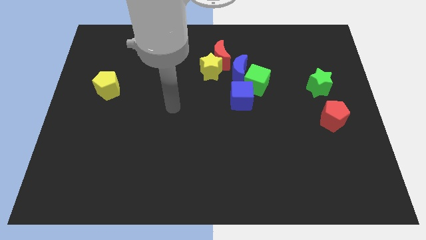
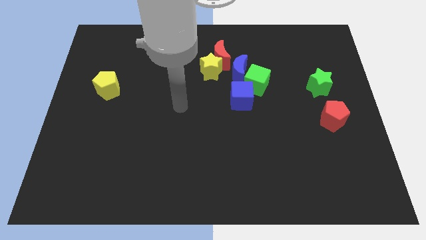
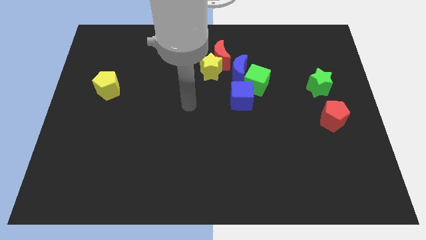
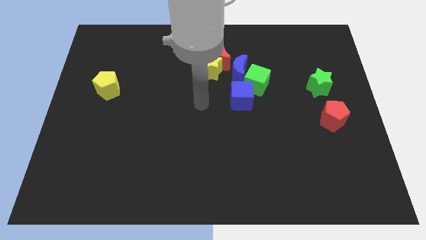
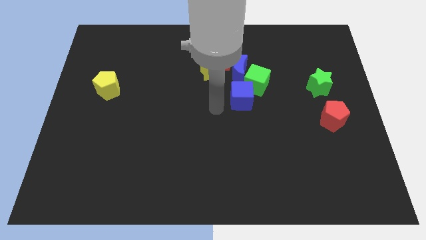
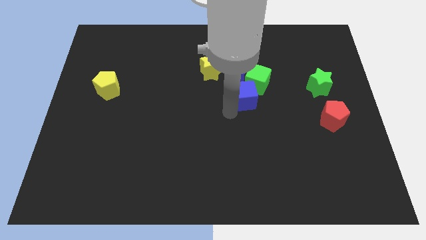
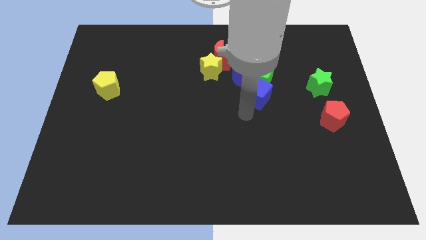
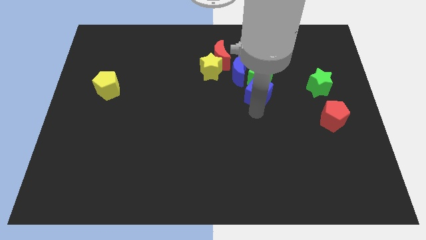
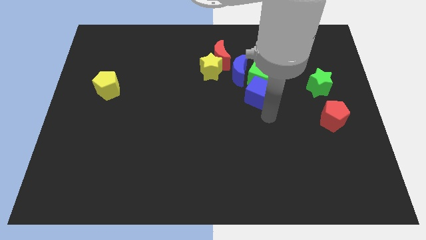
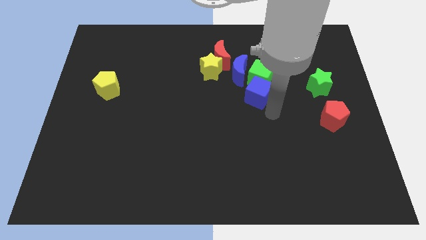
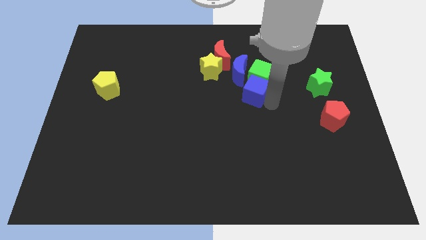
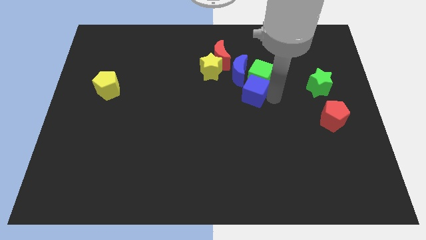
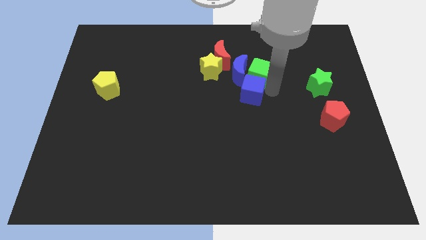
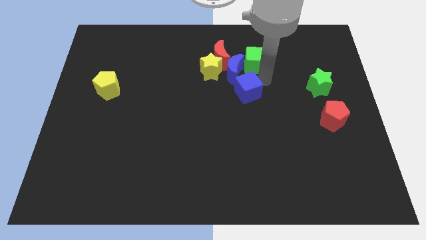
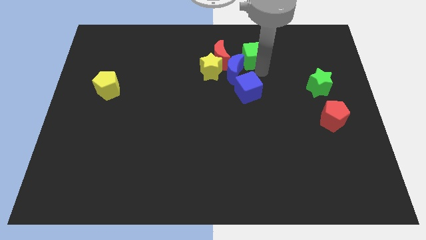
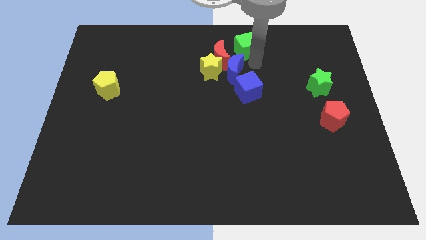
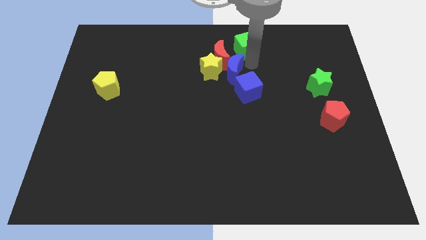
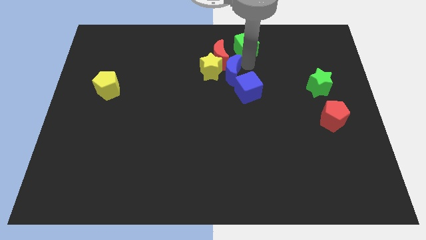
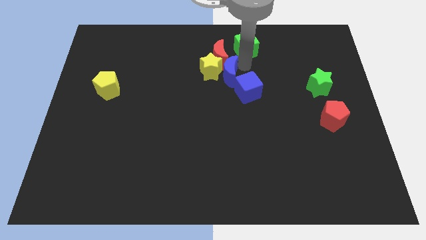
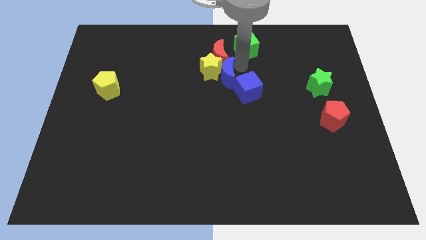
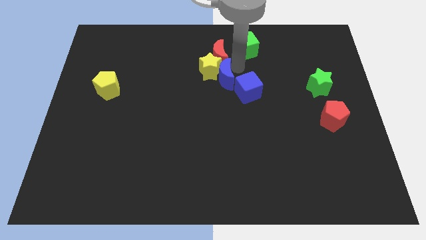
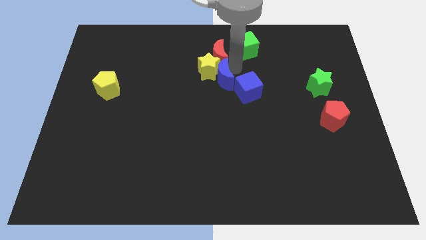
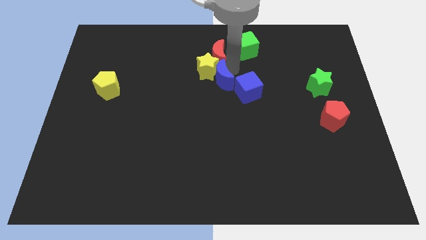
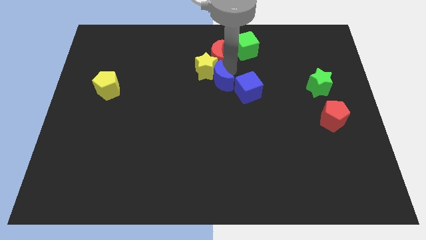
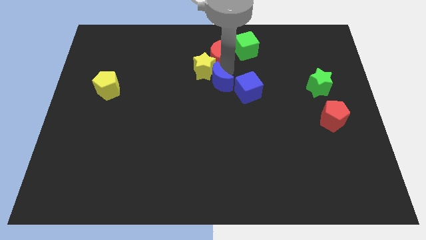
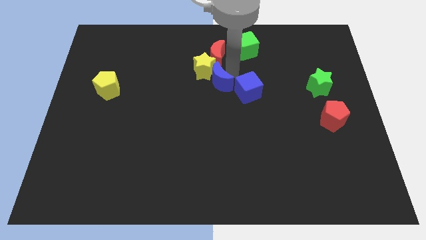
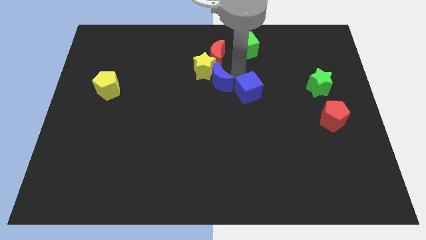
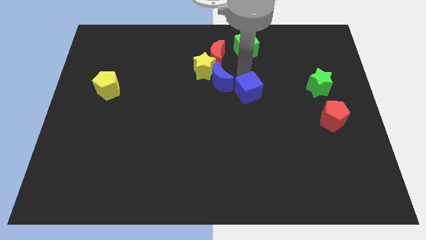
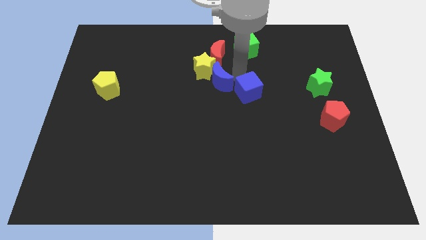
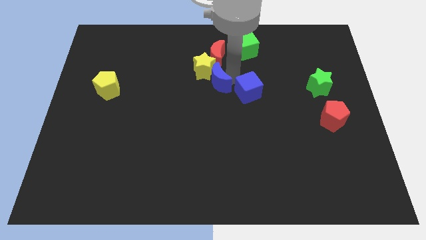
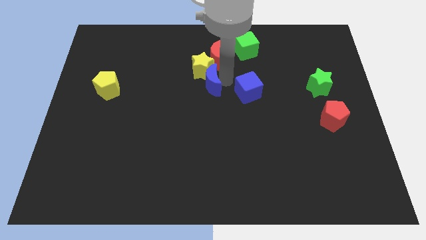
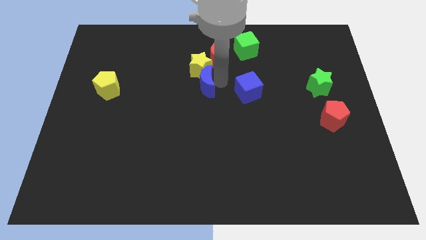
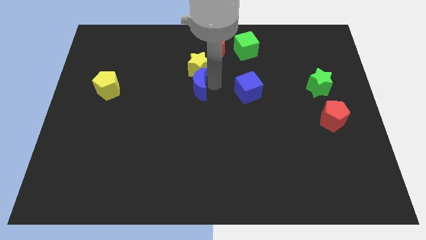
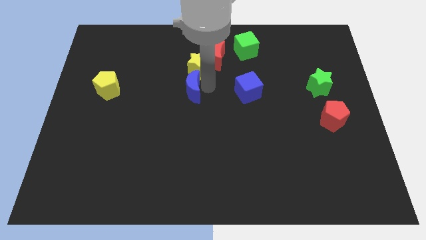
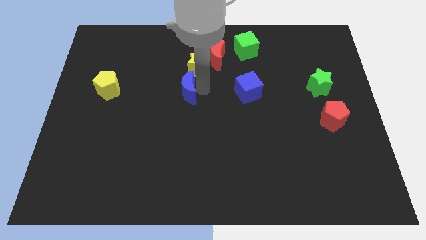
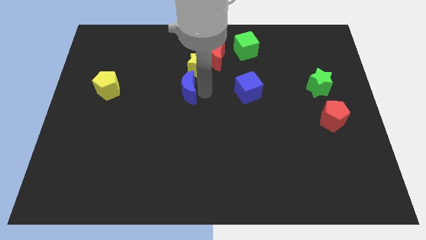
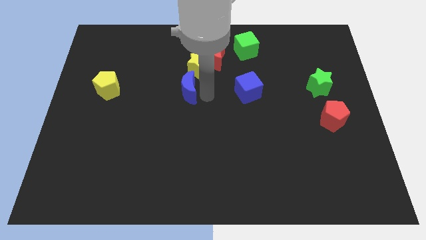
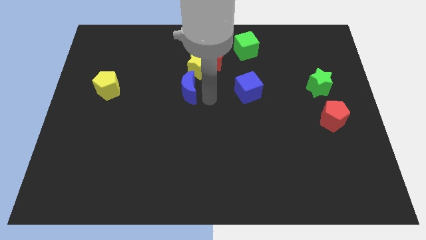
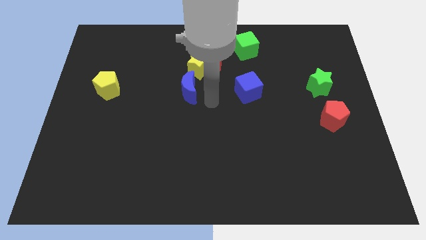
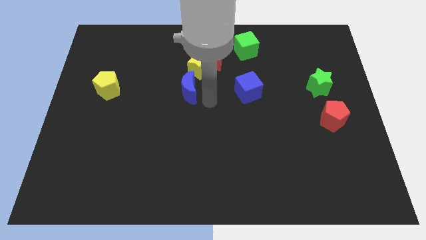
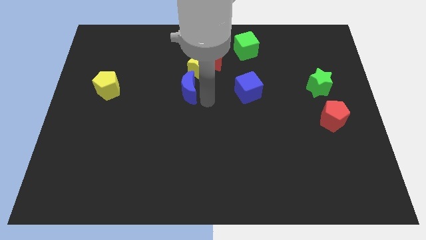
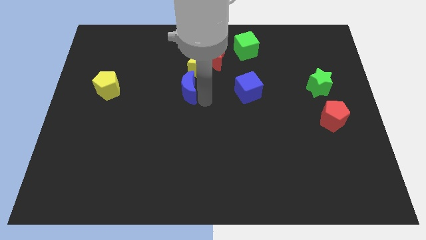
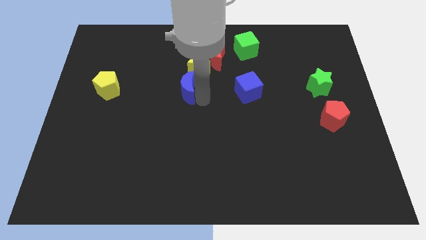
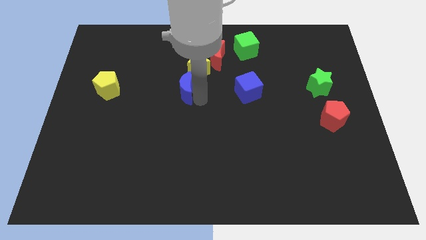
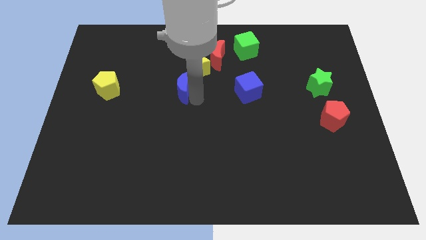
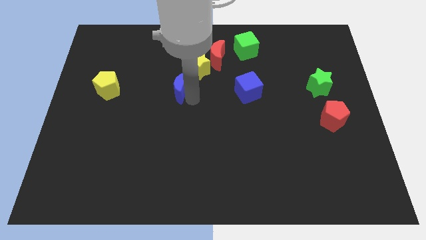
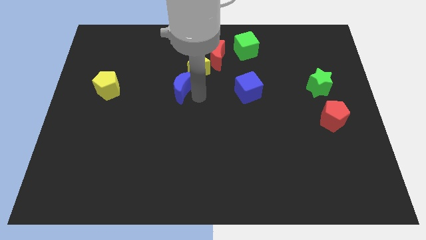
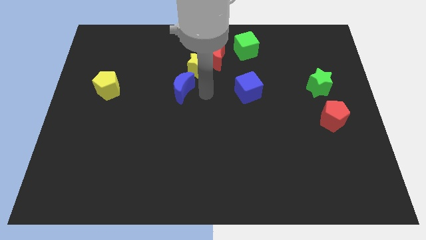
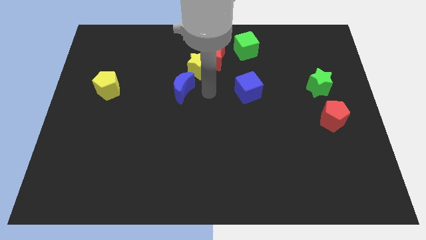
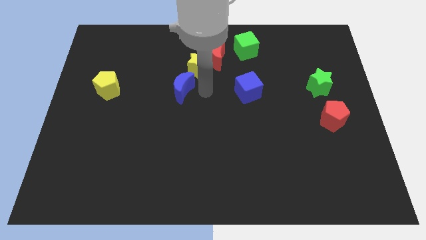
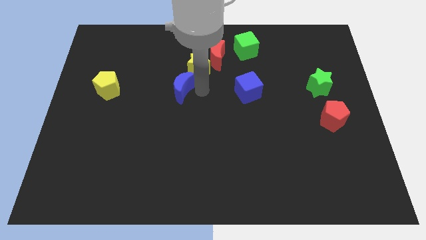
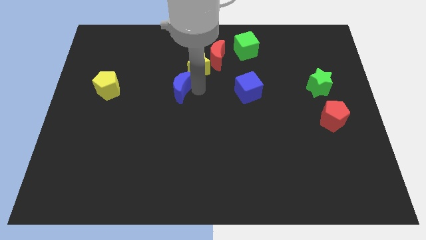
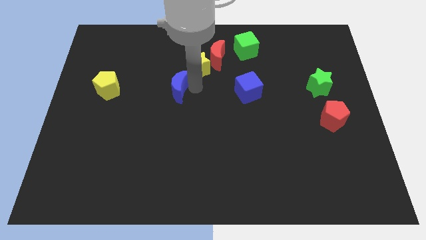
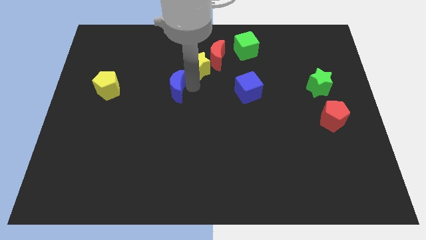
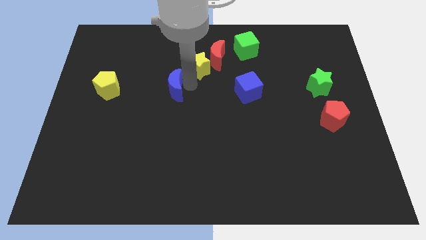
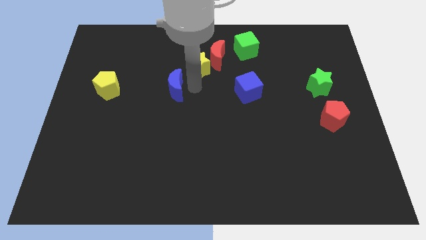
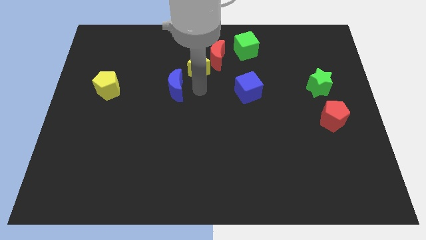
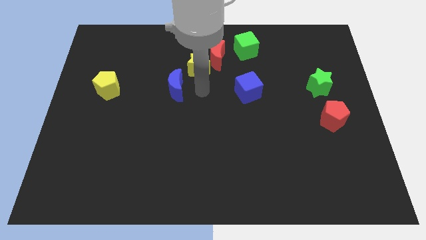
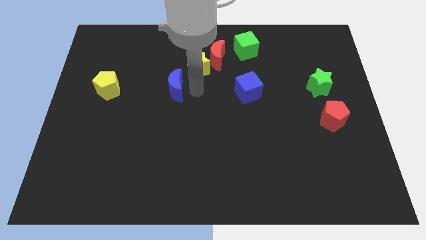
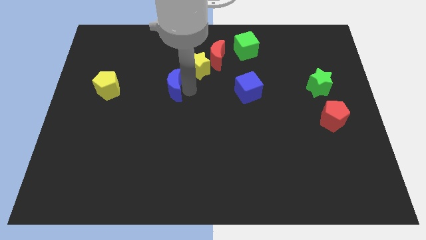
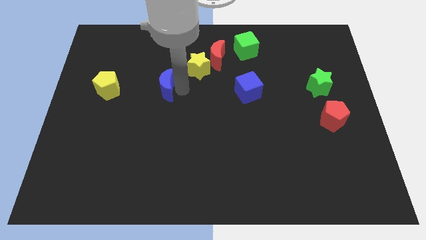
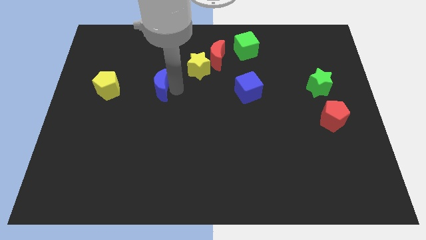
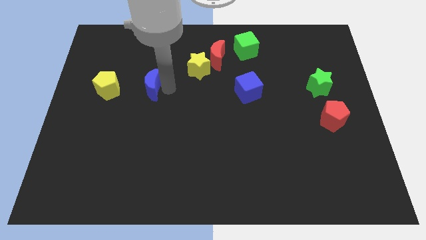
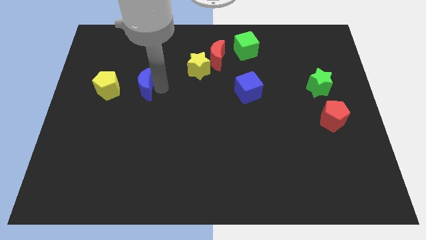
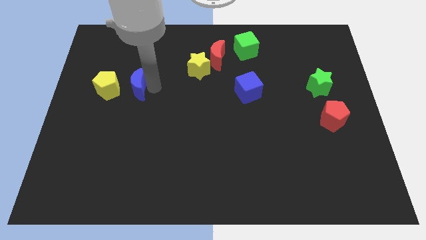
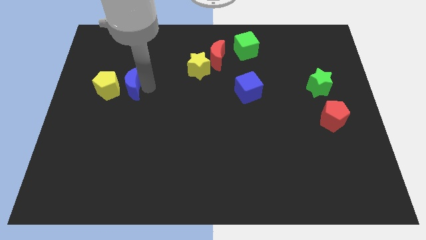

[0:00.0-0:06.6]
put the blue moon to the yellow pentagon

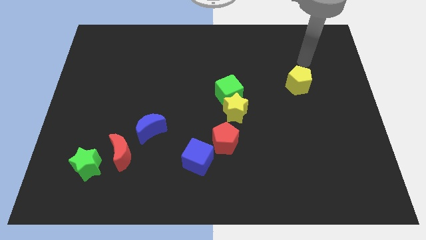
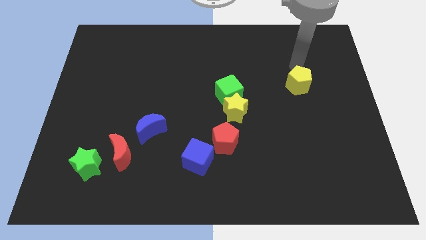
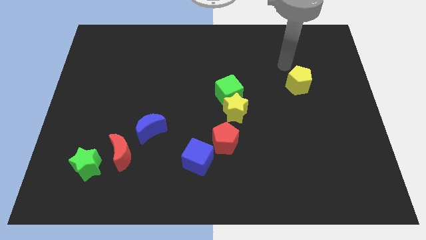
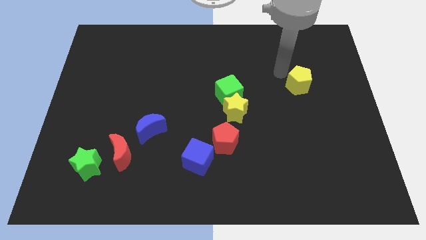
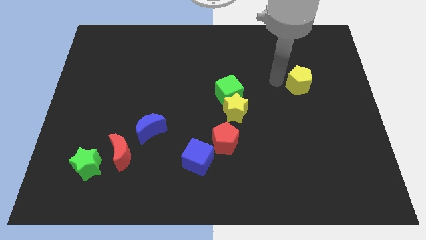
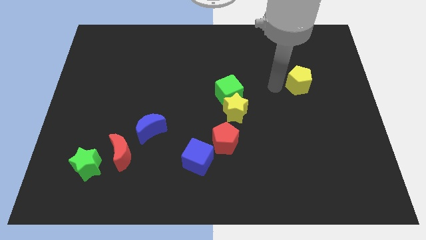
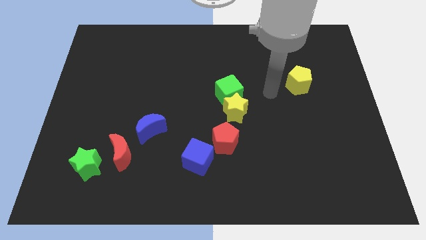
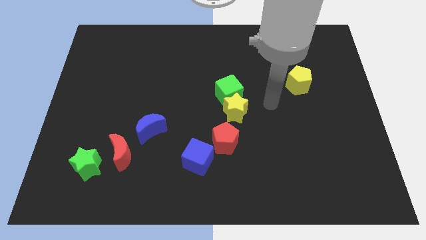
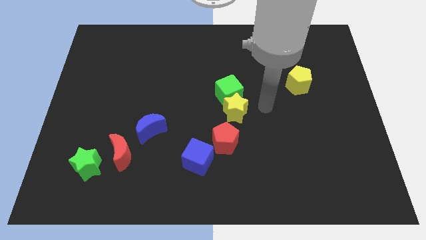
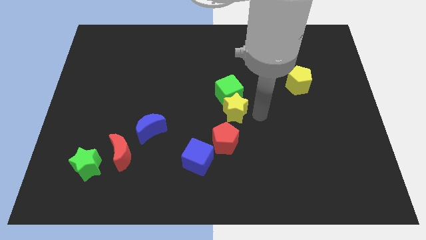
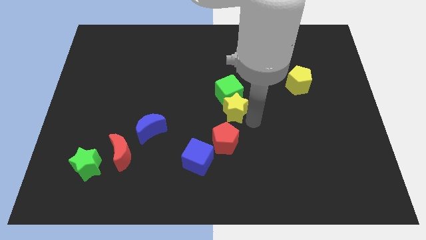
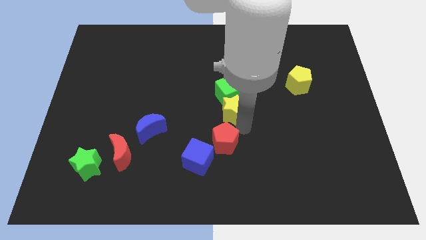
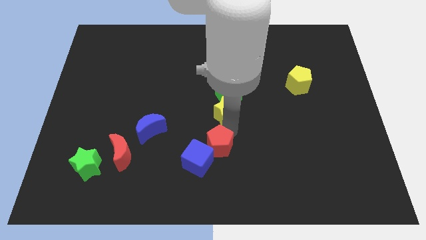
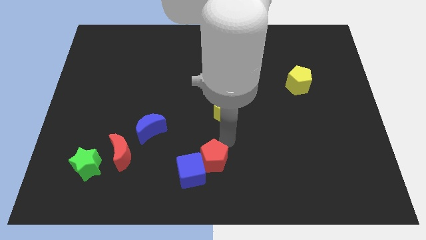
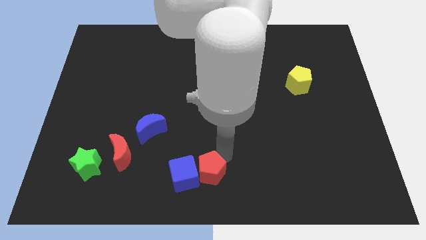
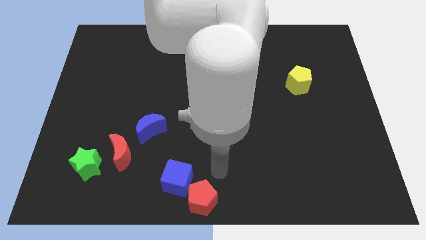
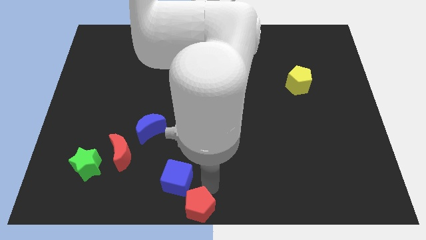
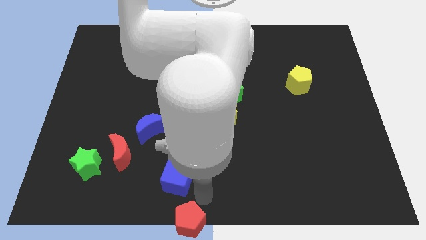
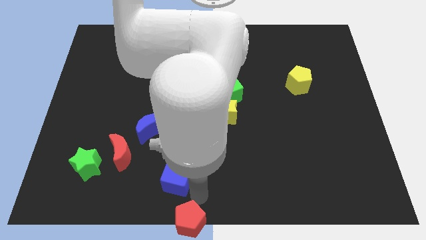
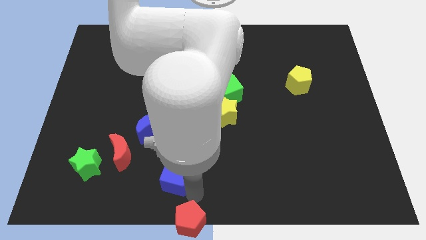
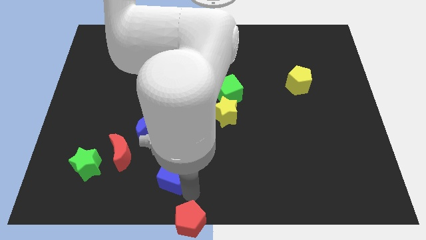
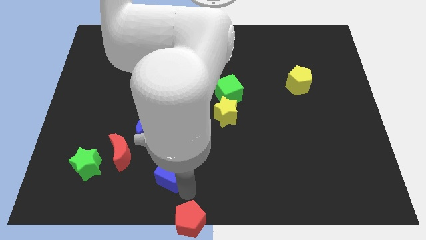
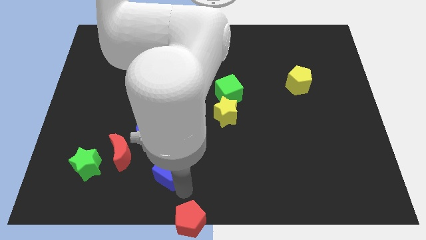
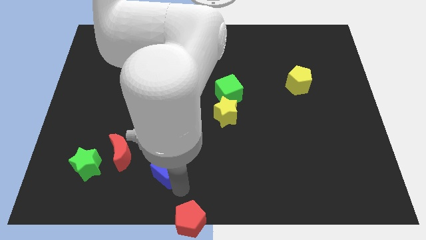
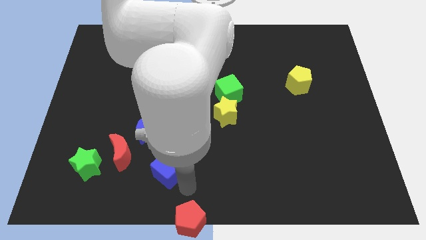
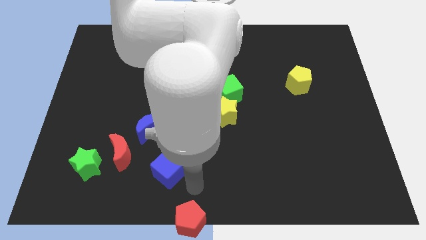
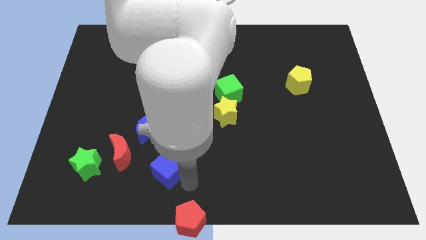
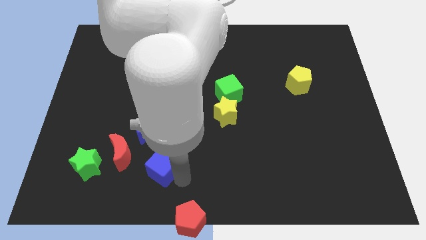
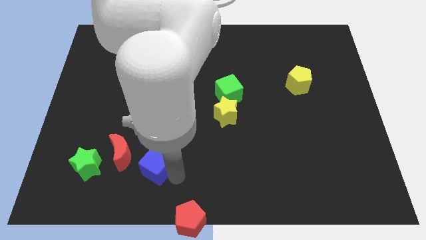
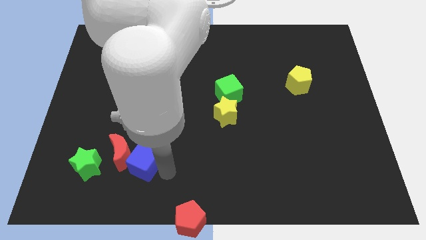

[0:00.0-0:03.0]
move the blue cube close to the red moon
